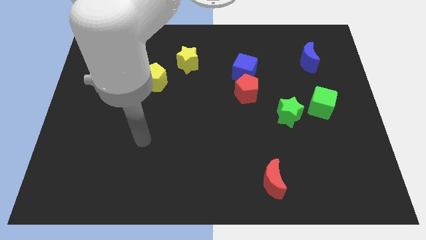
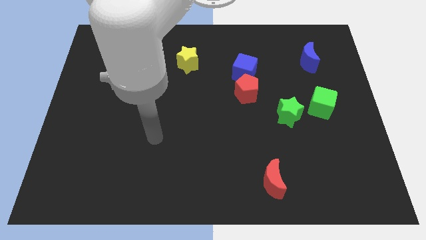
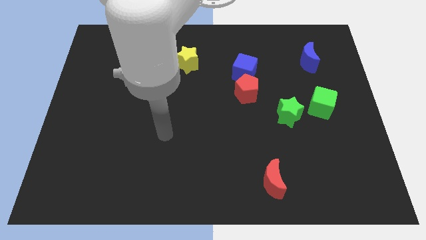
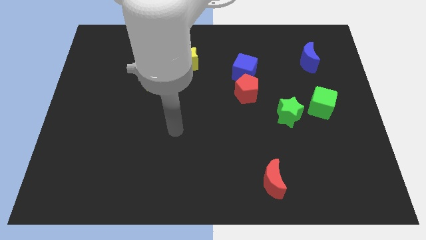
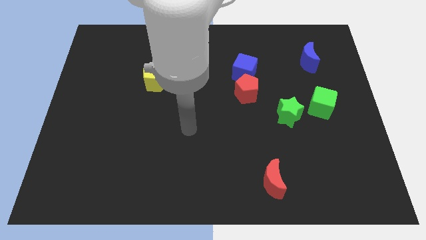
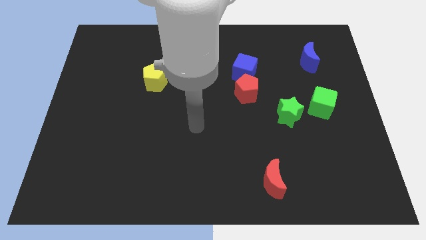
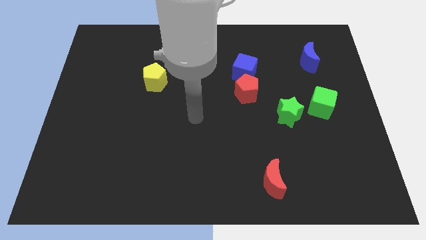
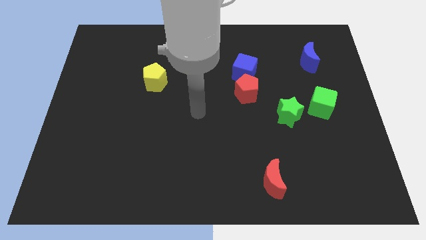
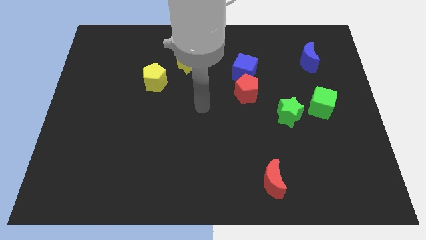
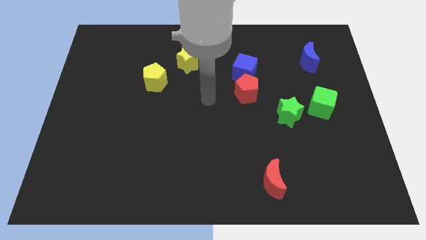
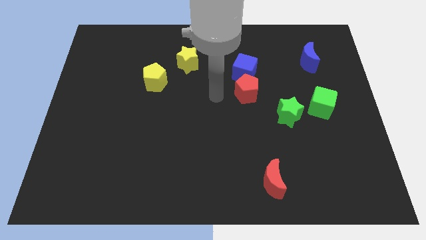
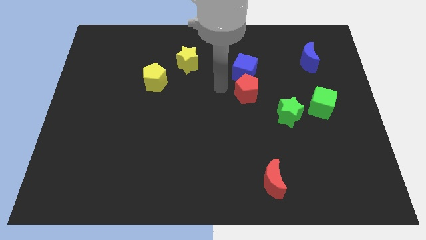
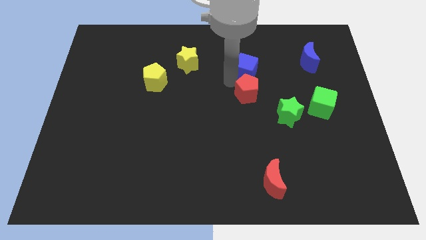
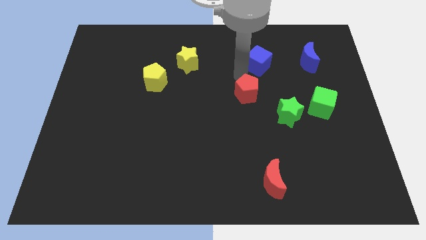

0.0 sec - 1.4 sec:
pull the red pentagon apart from the blue cube

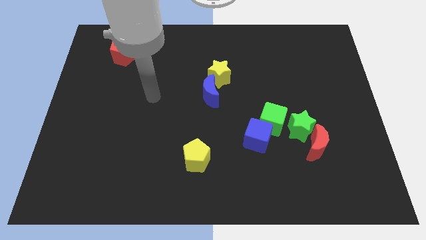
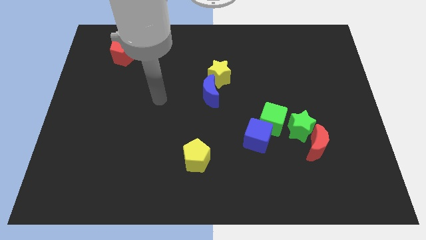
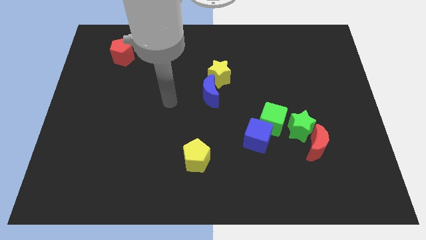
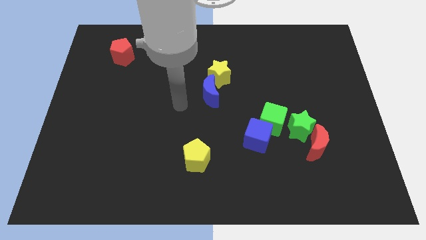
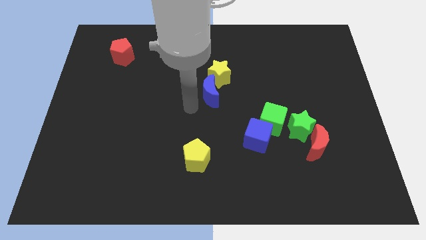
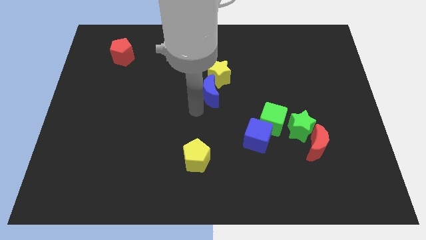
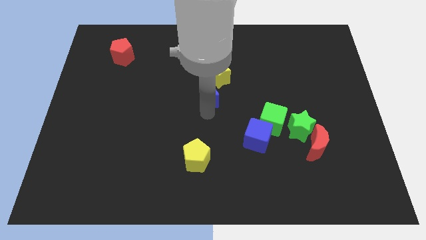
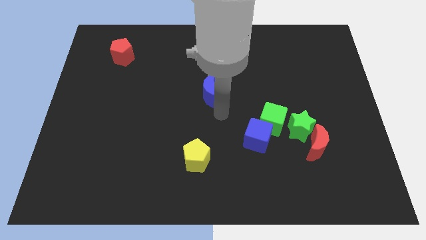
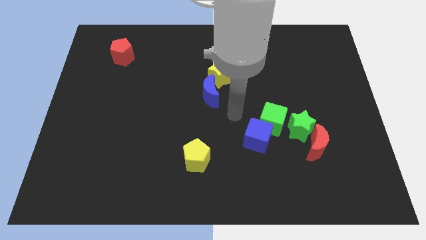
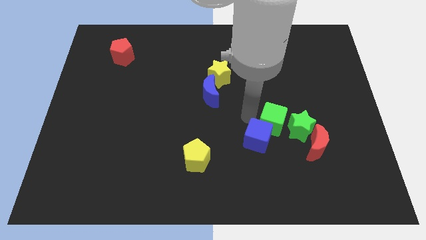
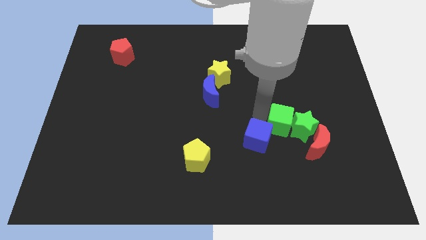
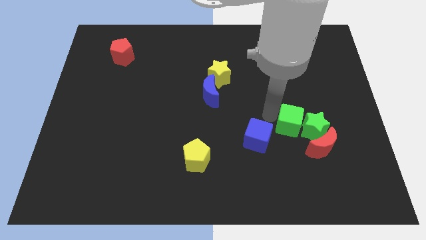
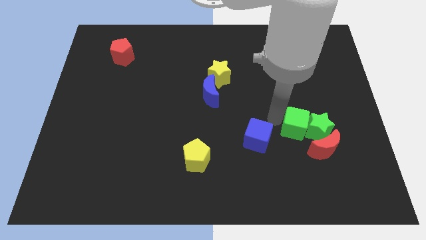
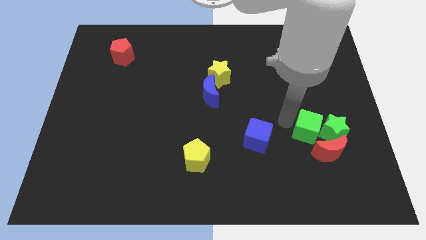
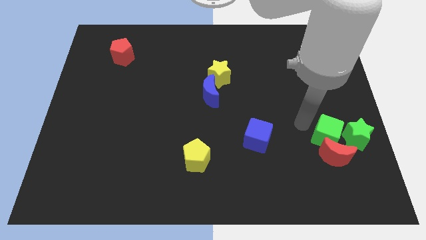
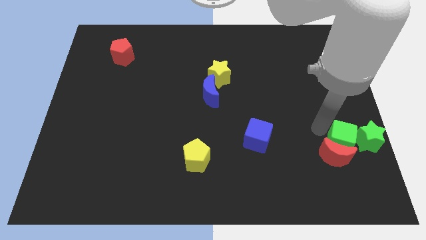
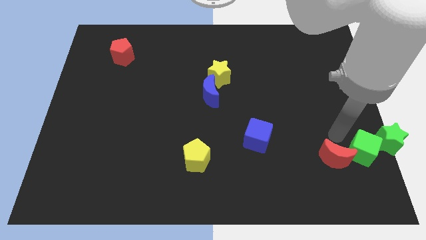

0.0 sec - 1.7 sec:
move the red moon away from the green star

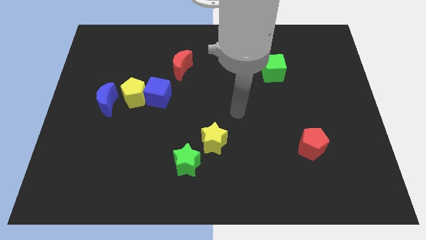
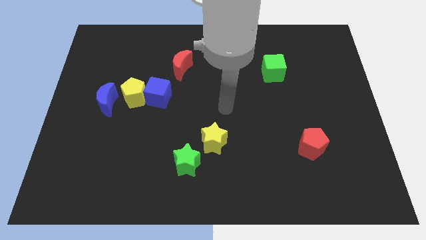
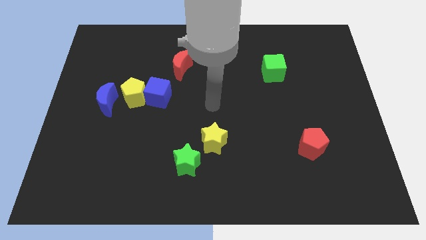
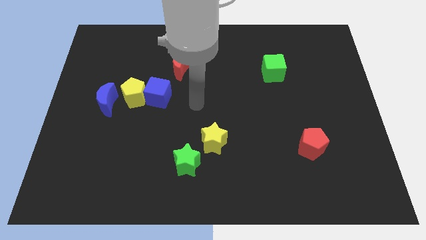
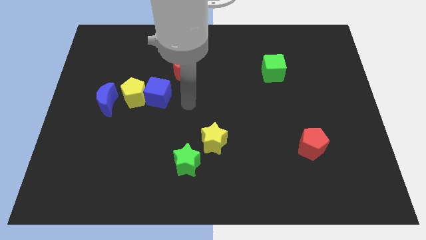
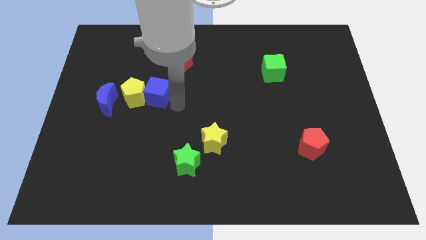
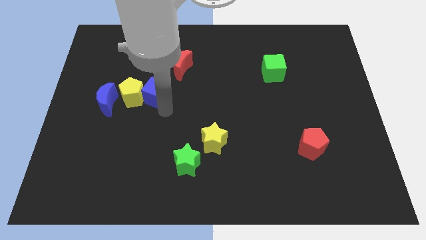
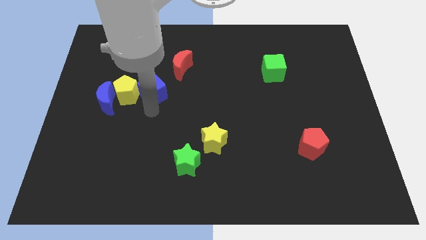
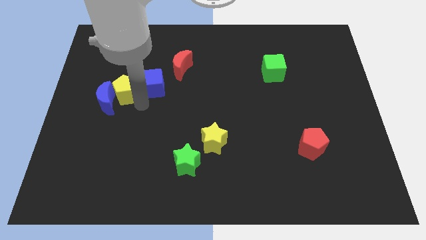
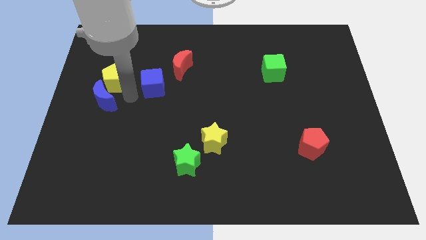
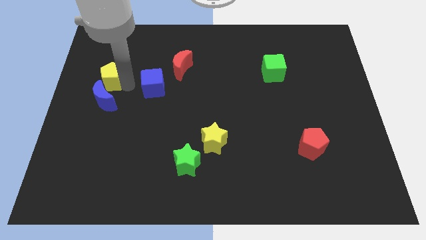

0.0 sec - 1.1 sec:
separate the blue cube from the yellow pentagon

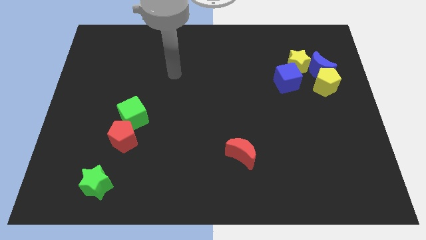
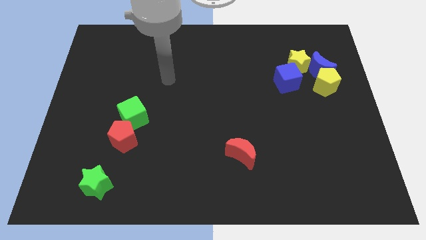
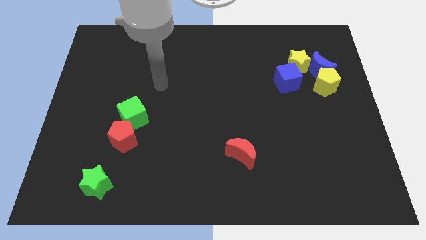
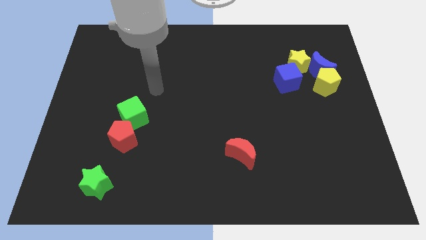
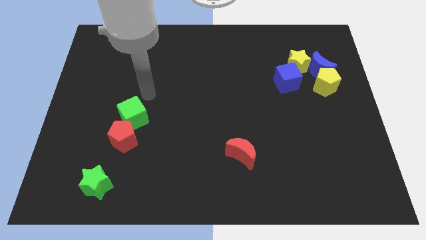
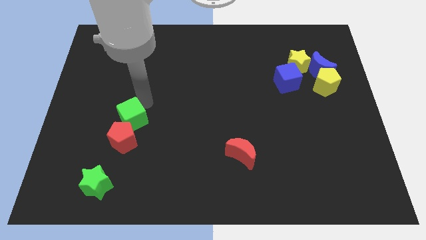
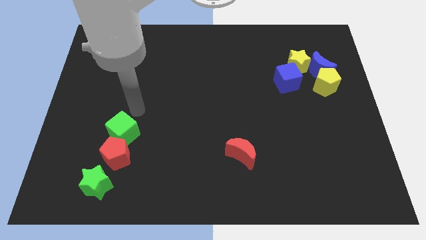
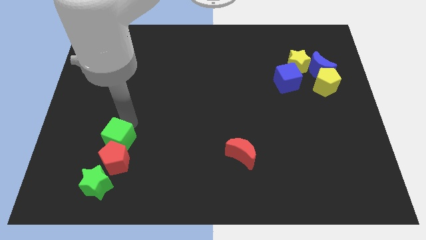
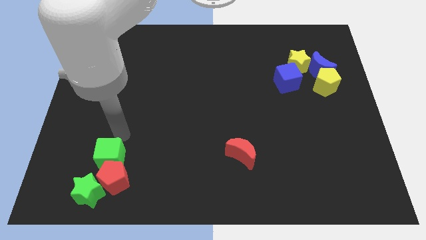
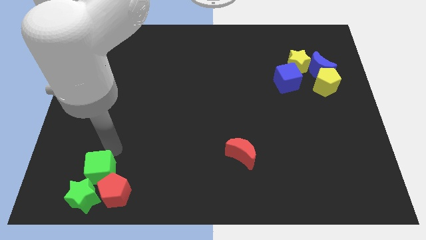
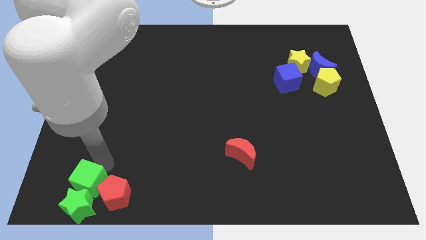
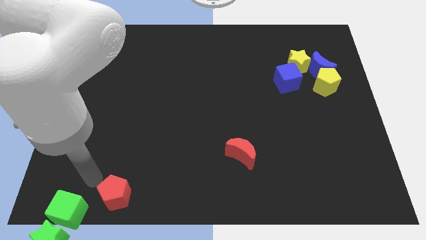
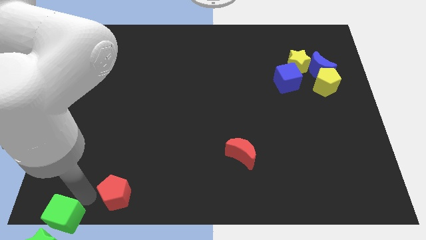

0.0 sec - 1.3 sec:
separate the red pentagon from the green cube

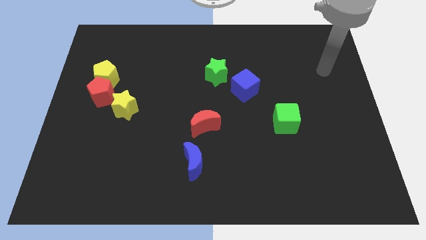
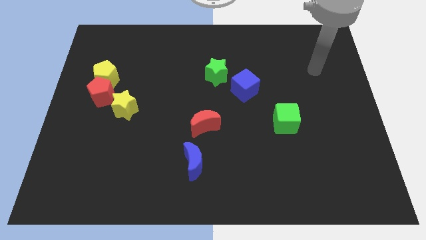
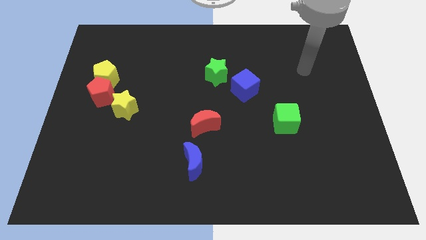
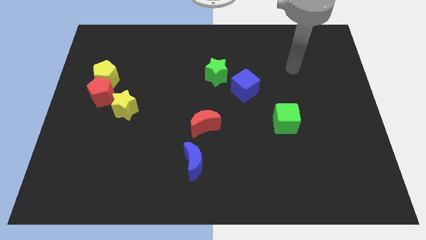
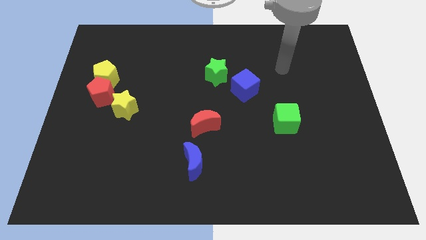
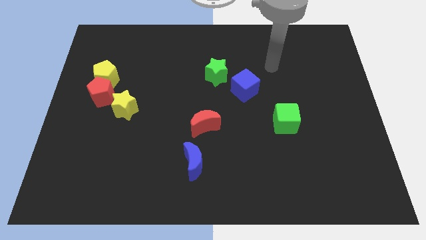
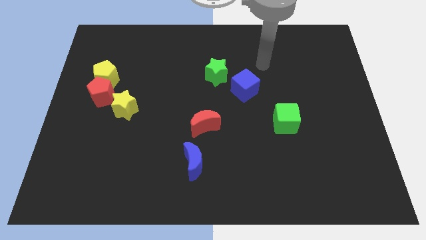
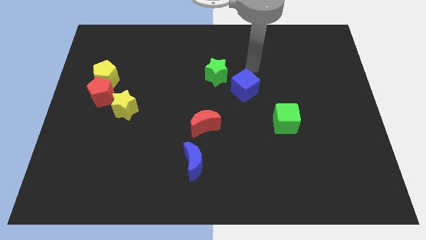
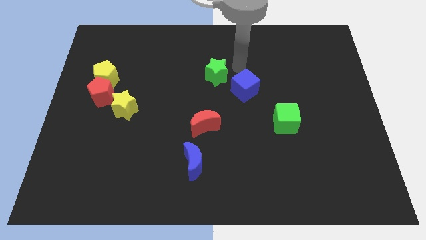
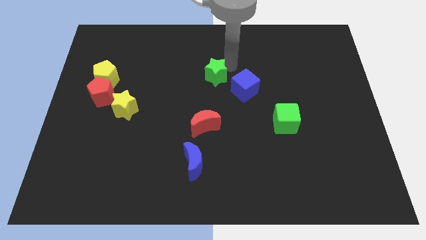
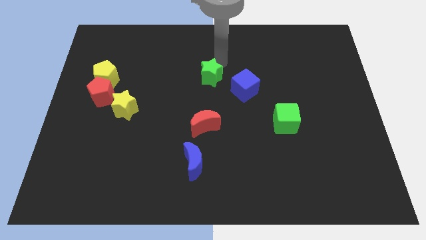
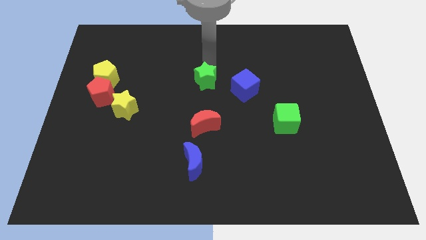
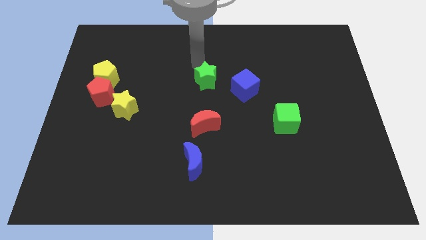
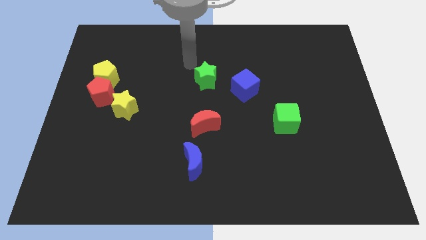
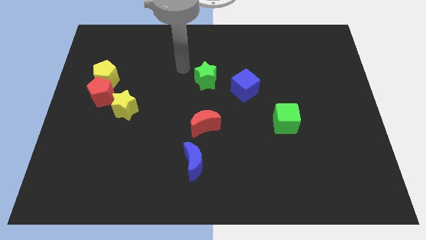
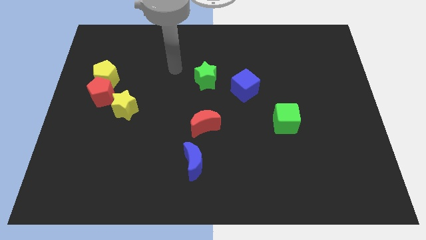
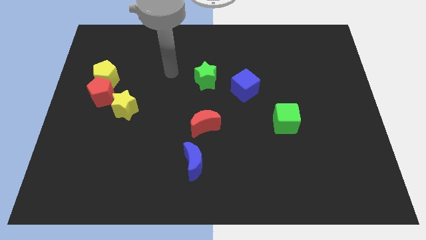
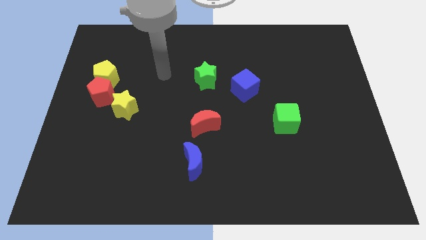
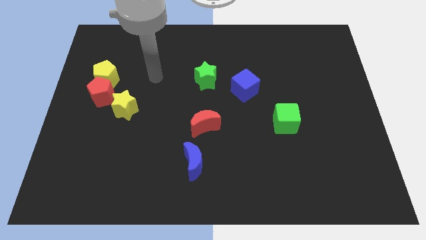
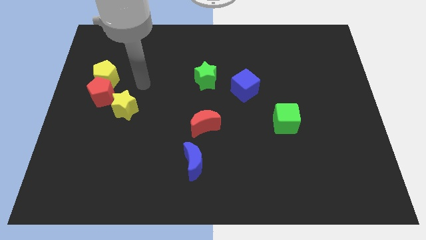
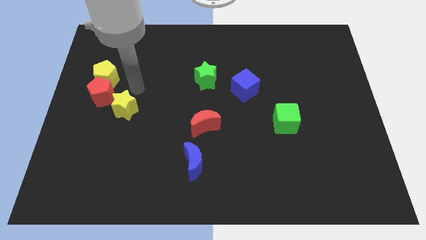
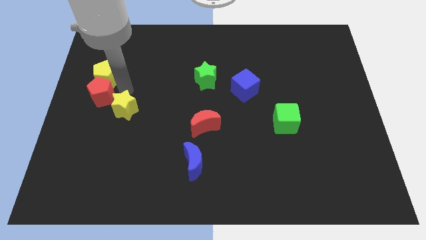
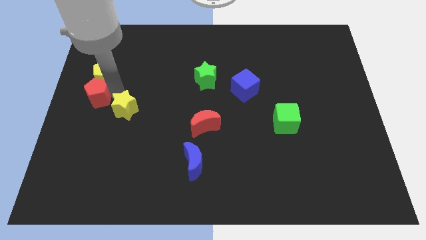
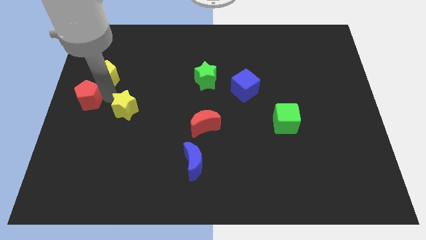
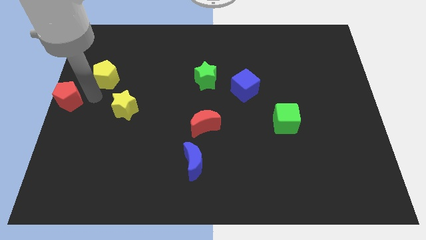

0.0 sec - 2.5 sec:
move the yellow pentagon away from the red pentagon

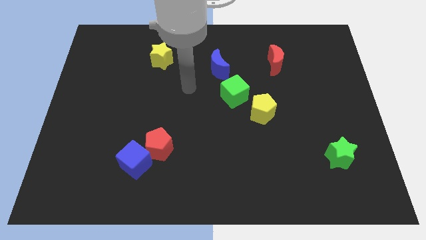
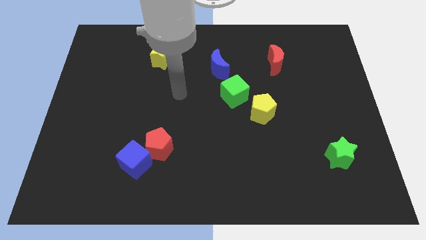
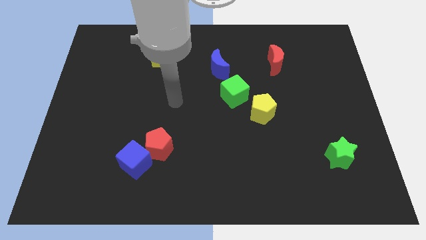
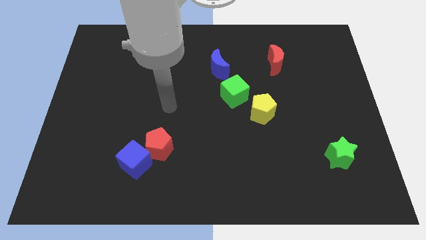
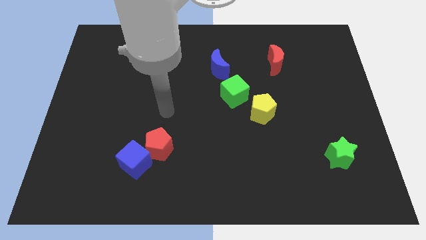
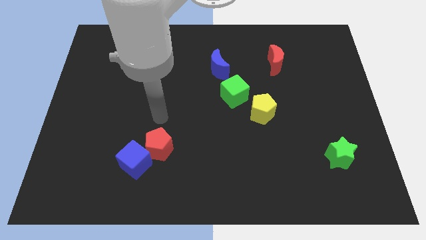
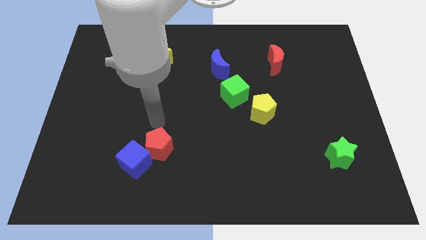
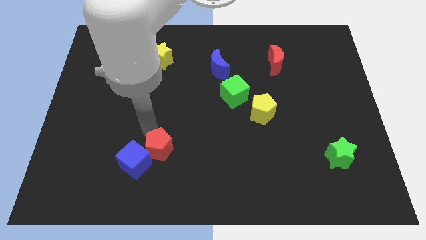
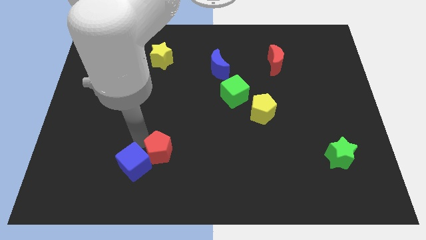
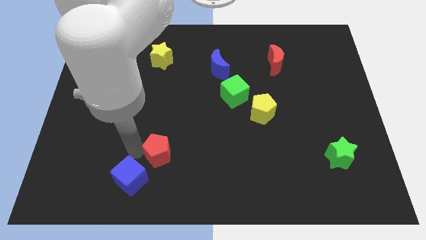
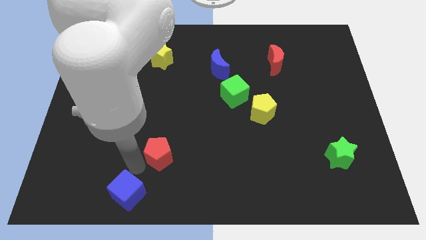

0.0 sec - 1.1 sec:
move the red pentagon away from the blue cube

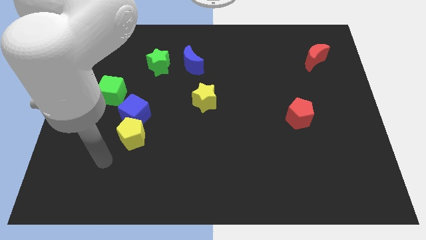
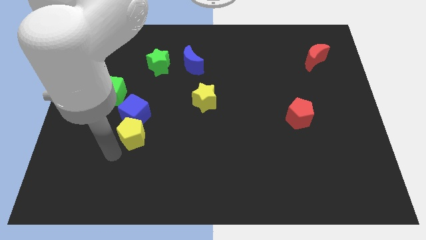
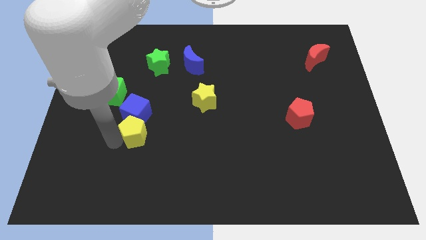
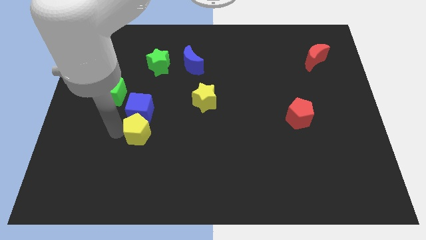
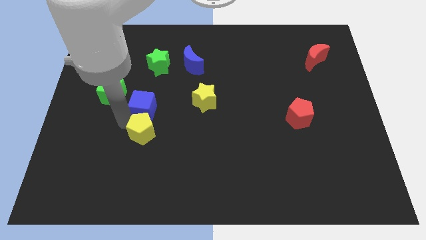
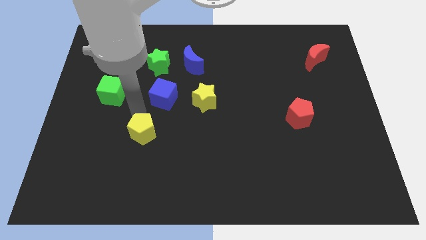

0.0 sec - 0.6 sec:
pull the yellow pentagon apart from the blue cube
